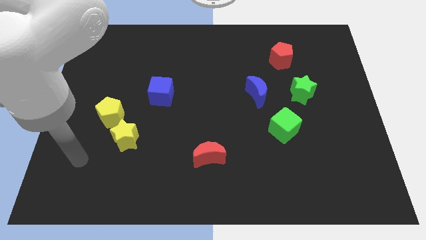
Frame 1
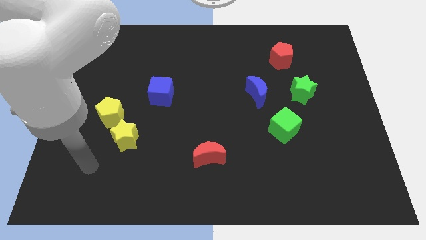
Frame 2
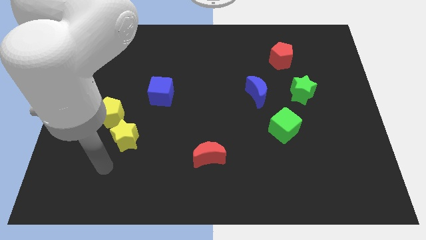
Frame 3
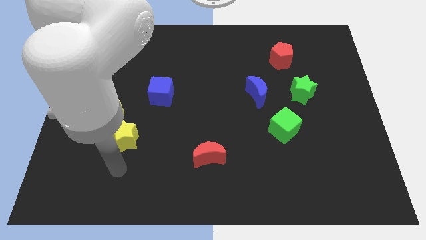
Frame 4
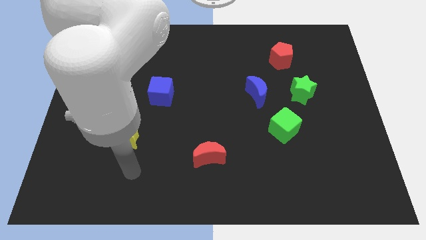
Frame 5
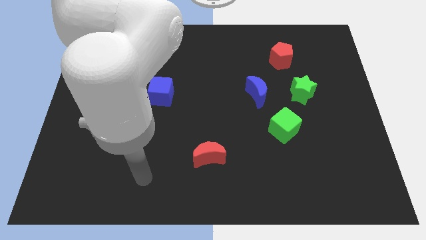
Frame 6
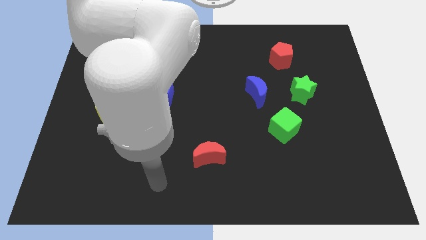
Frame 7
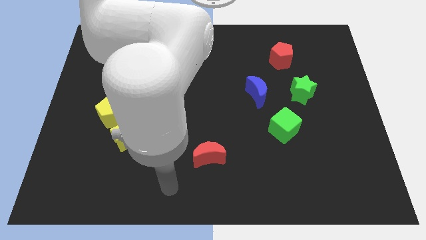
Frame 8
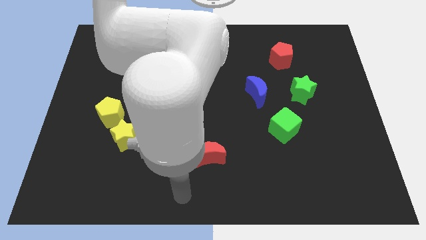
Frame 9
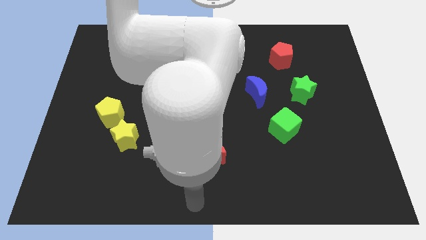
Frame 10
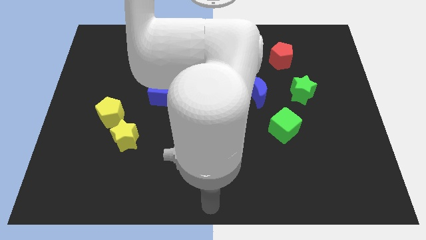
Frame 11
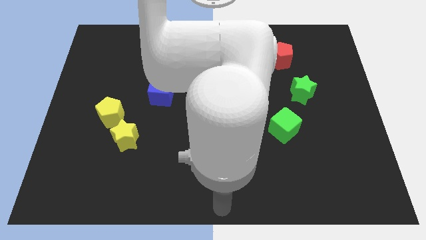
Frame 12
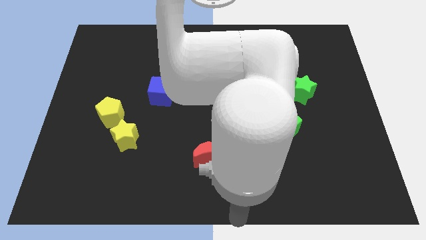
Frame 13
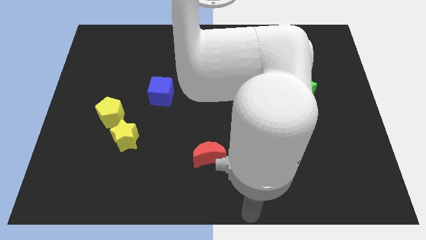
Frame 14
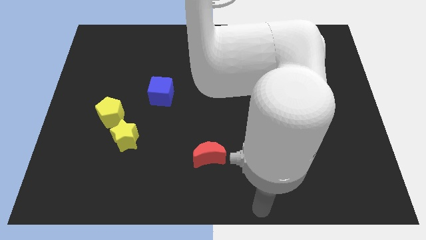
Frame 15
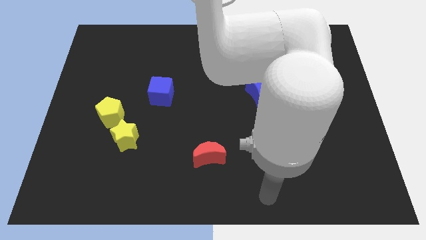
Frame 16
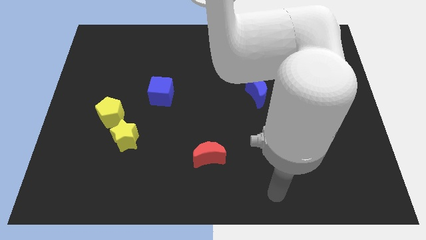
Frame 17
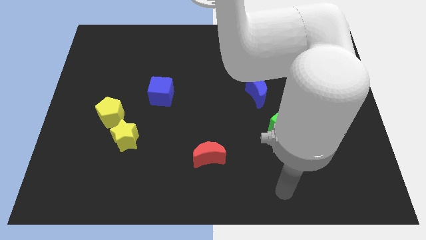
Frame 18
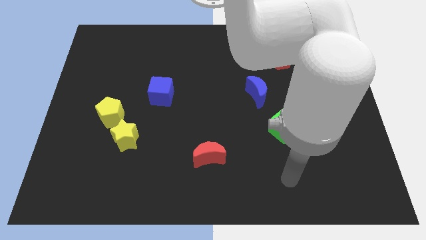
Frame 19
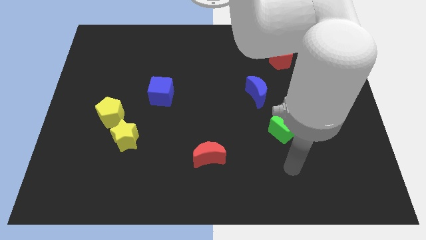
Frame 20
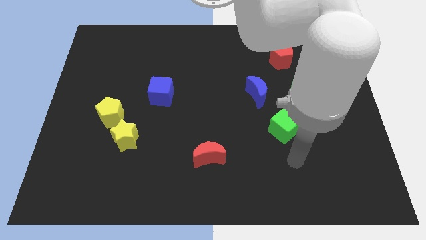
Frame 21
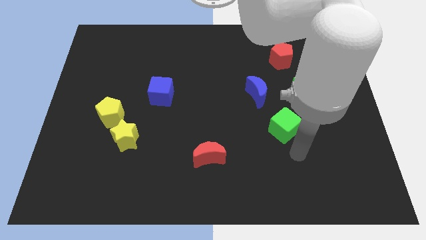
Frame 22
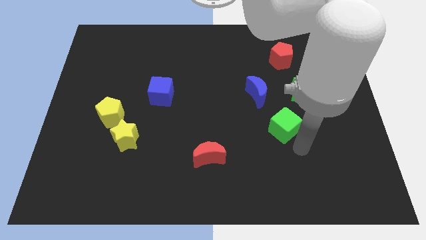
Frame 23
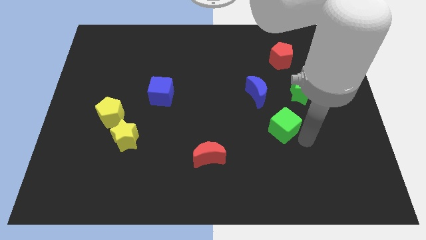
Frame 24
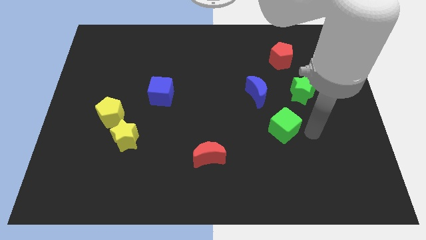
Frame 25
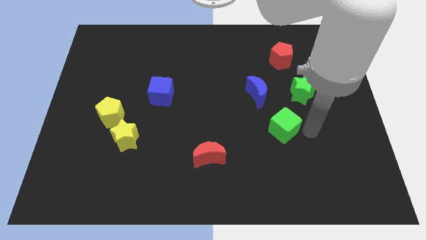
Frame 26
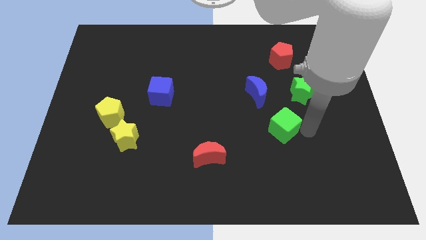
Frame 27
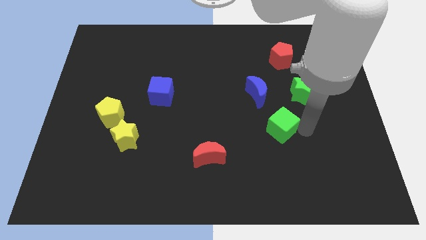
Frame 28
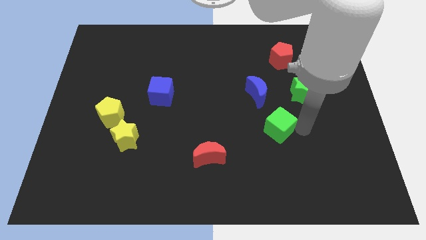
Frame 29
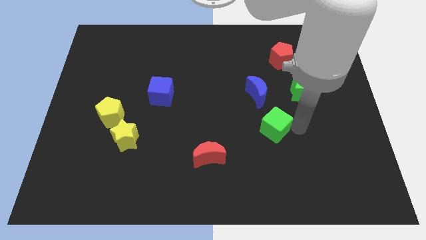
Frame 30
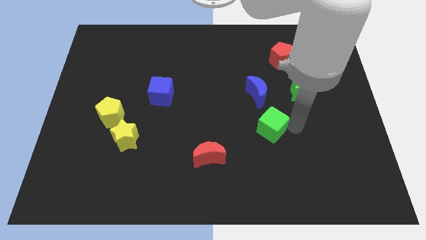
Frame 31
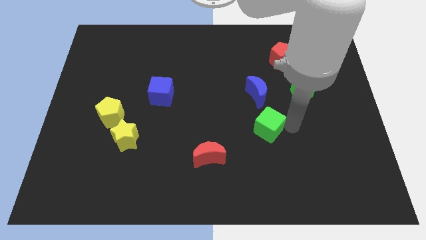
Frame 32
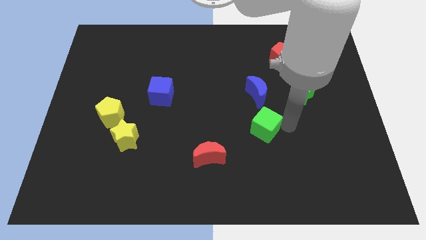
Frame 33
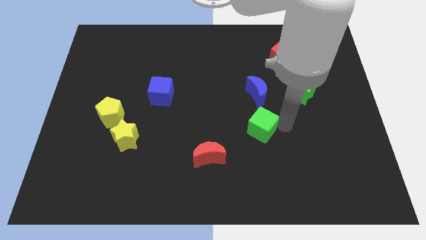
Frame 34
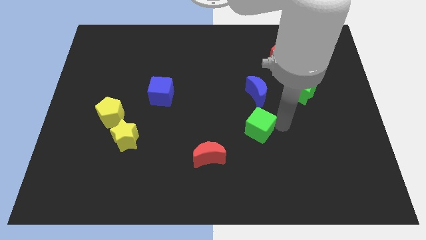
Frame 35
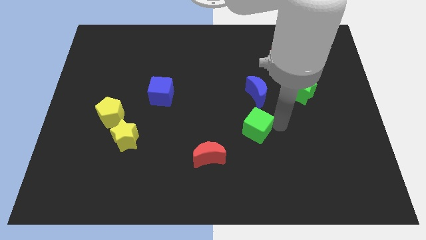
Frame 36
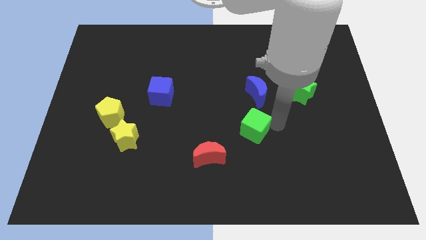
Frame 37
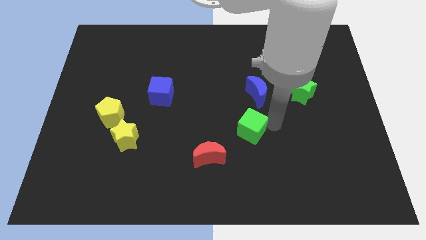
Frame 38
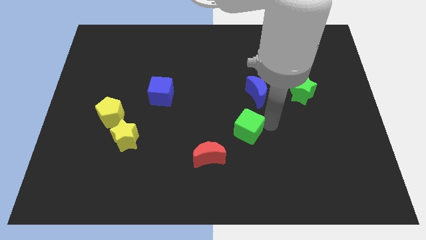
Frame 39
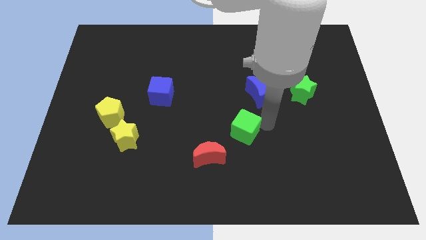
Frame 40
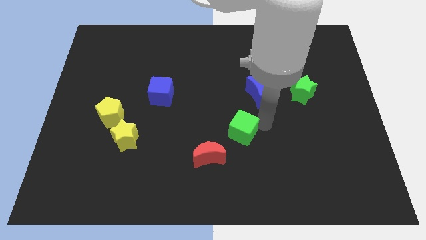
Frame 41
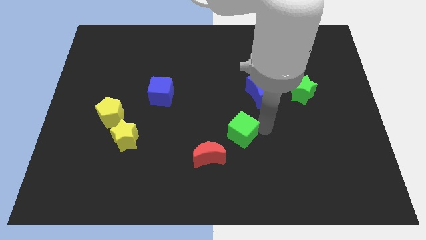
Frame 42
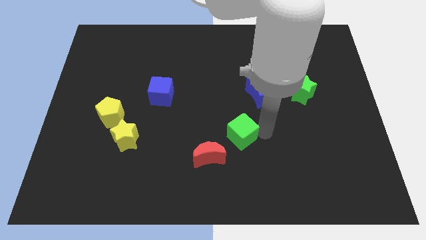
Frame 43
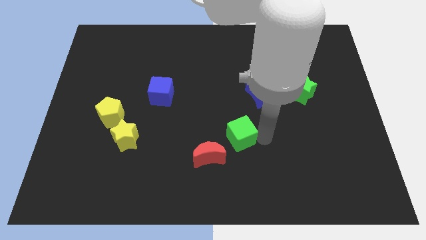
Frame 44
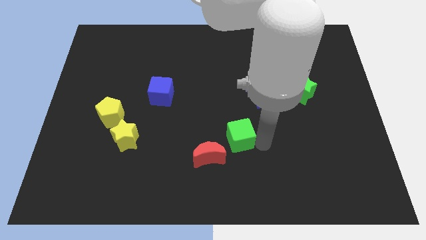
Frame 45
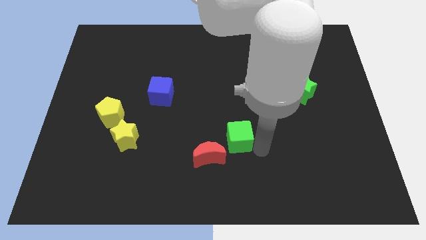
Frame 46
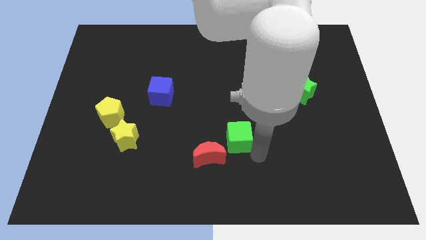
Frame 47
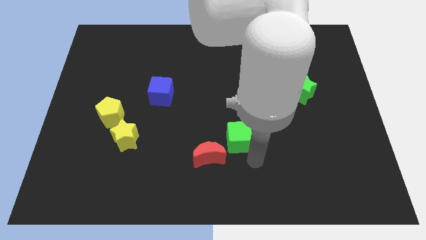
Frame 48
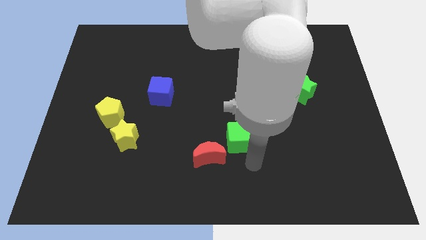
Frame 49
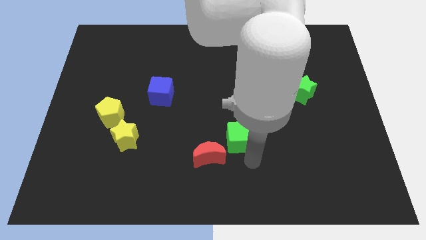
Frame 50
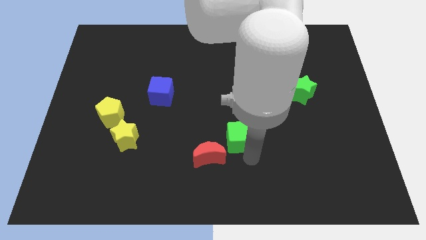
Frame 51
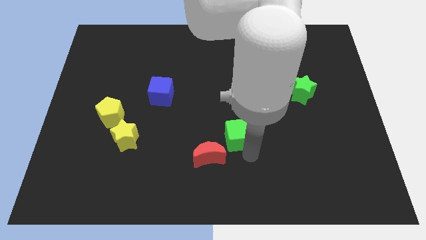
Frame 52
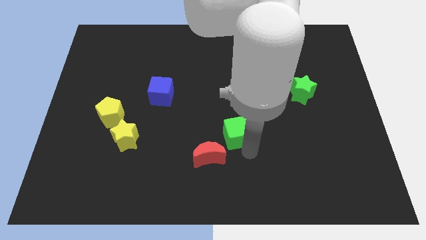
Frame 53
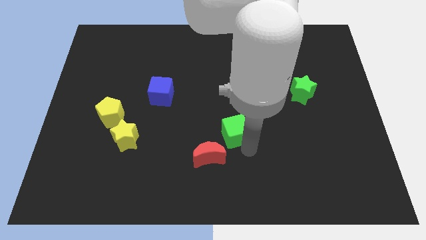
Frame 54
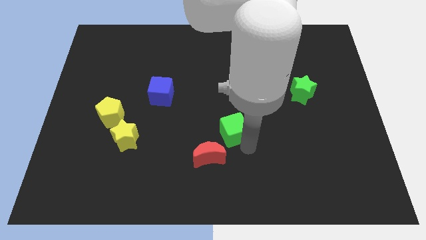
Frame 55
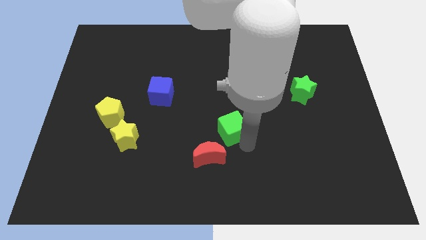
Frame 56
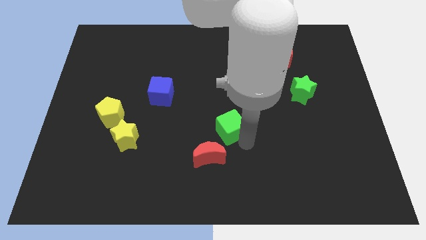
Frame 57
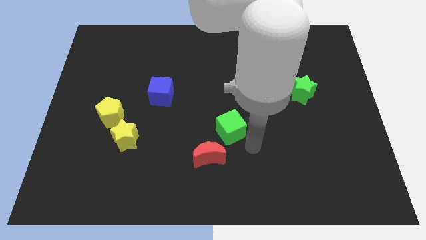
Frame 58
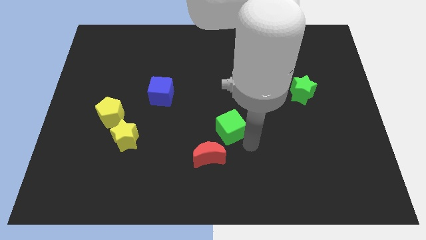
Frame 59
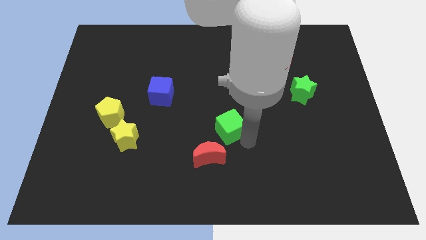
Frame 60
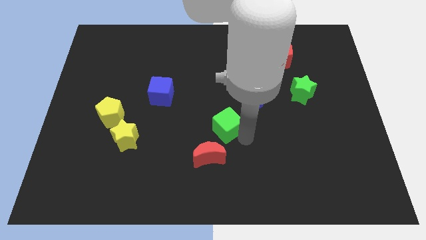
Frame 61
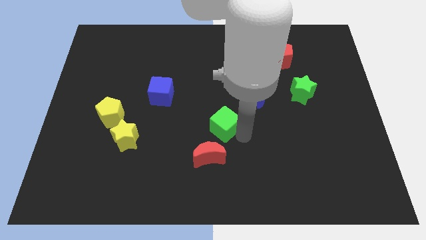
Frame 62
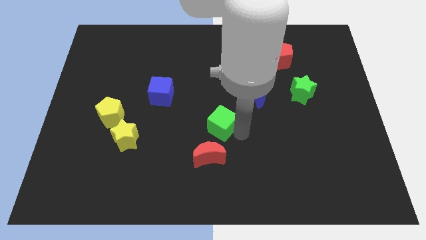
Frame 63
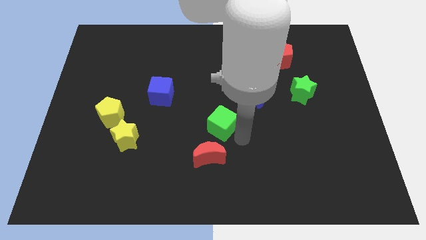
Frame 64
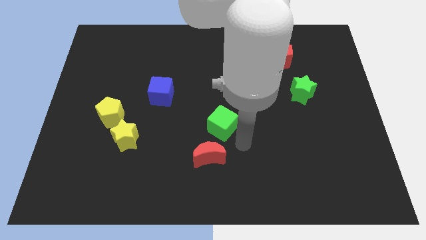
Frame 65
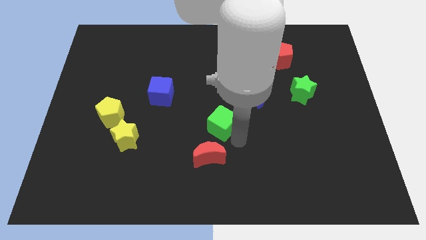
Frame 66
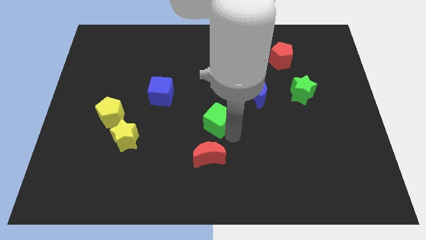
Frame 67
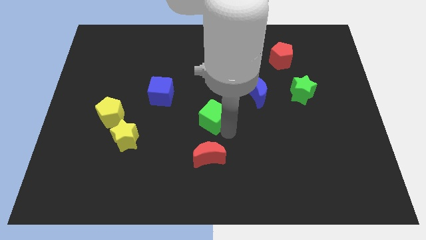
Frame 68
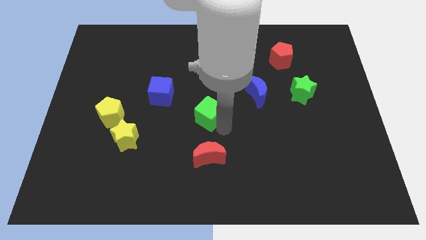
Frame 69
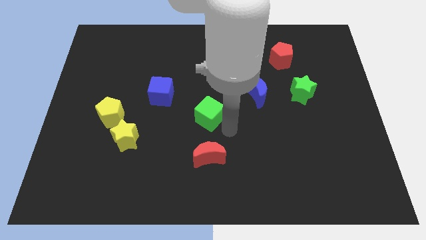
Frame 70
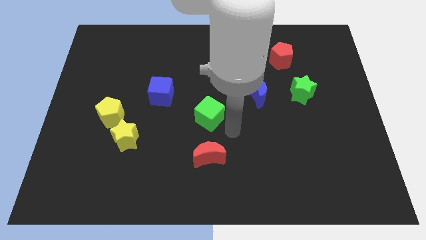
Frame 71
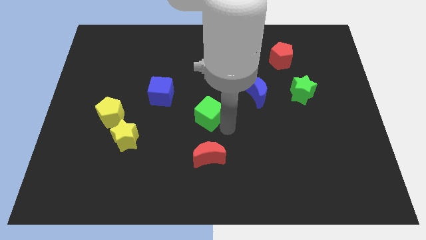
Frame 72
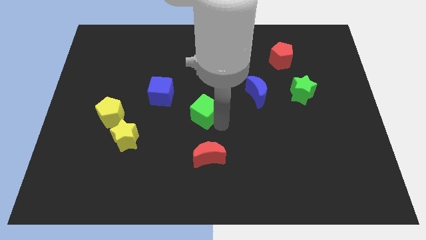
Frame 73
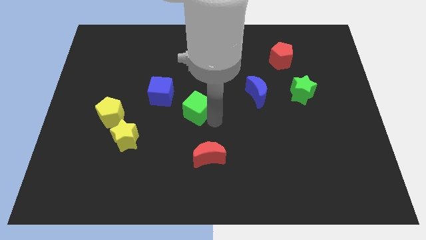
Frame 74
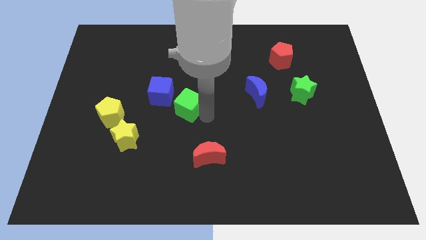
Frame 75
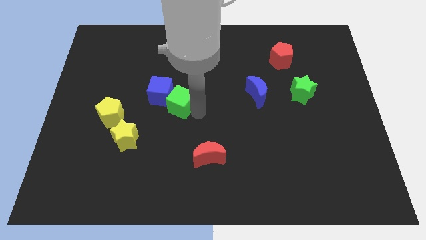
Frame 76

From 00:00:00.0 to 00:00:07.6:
push the green cube next to the blue cube

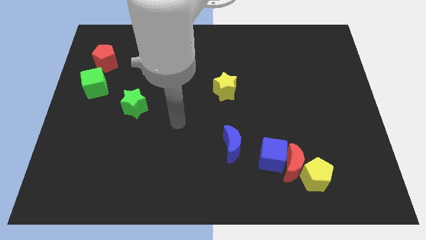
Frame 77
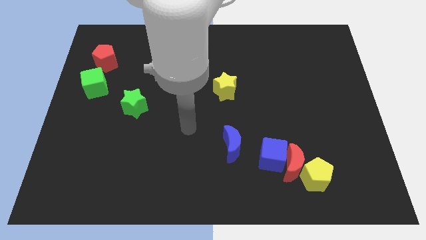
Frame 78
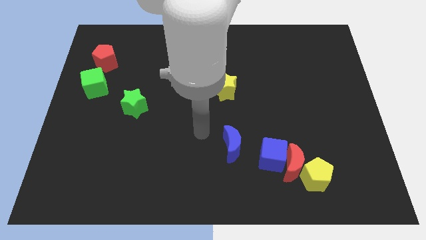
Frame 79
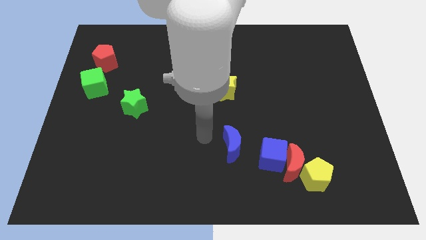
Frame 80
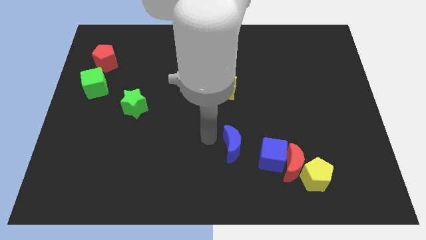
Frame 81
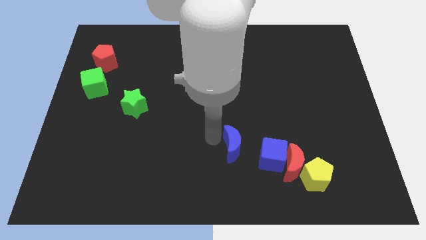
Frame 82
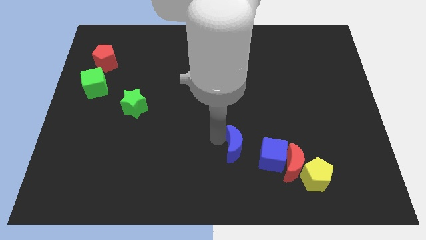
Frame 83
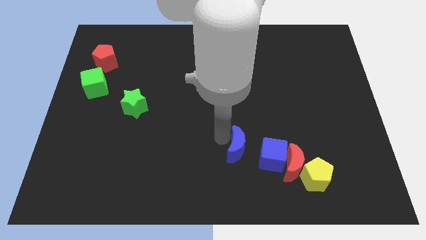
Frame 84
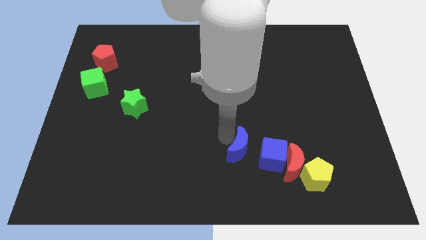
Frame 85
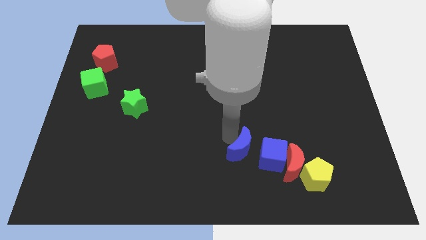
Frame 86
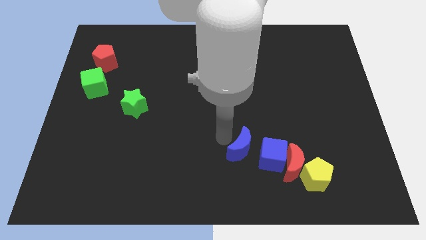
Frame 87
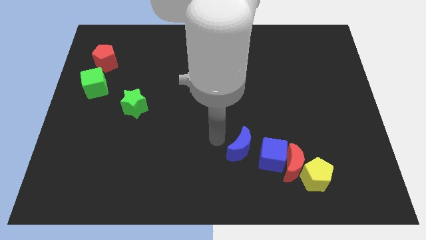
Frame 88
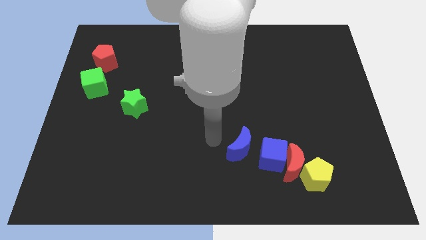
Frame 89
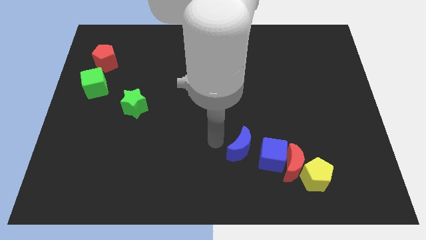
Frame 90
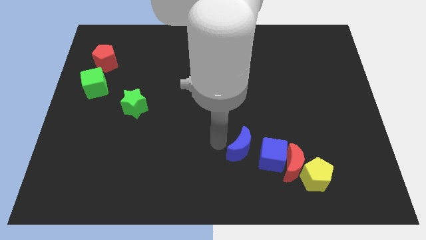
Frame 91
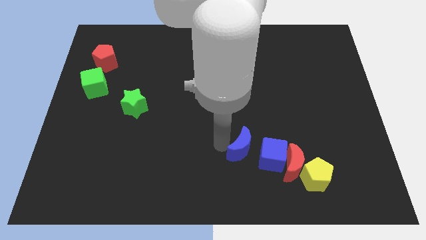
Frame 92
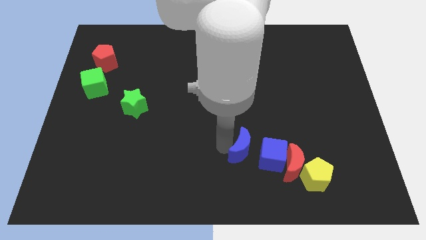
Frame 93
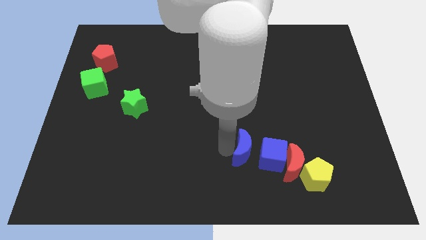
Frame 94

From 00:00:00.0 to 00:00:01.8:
push the blue moon close to the blue cube
